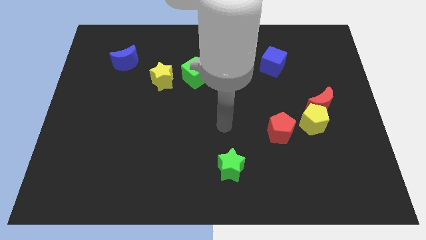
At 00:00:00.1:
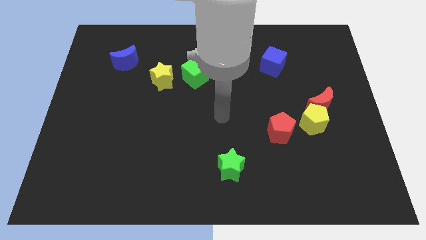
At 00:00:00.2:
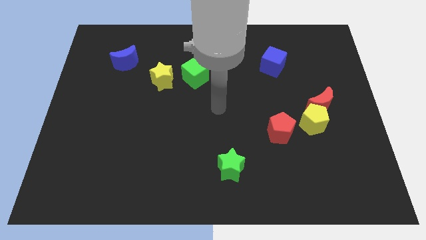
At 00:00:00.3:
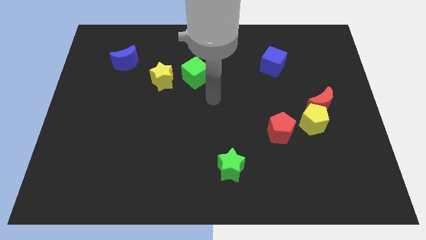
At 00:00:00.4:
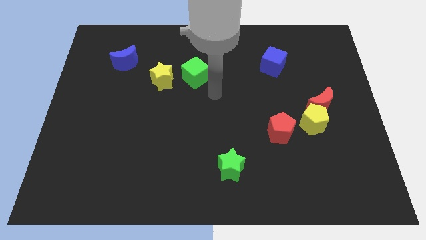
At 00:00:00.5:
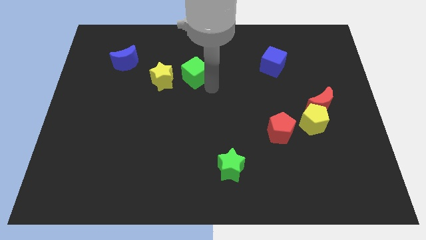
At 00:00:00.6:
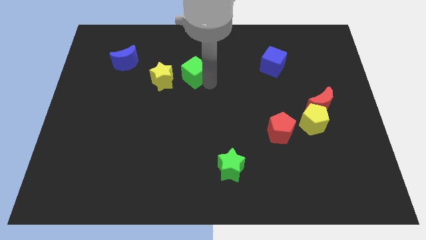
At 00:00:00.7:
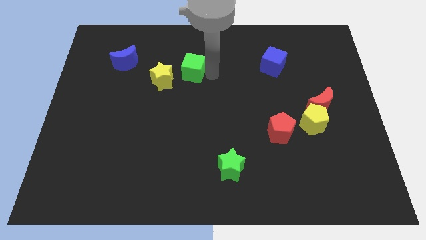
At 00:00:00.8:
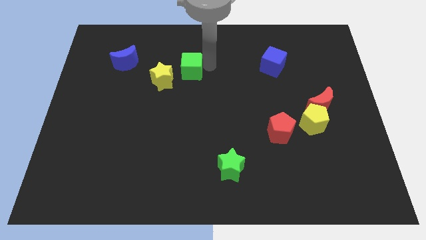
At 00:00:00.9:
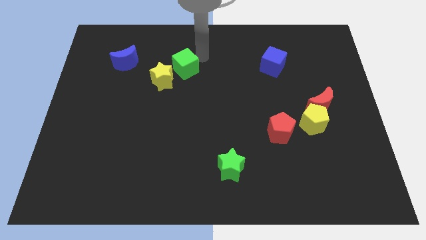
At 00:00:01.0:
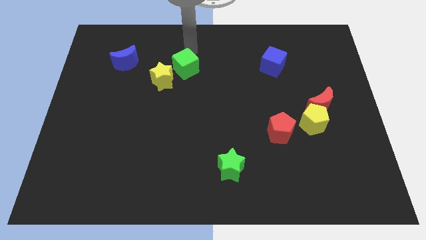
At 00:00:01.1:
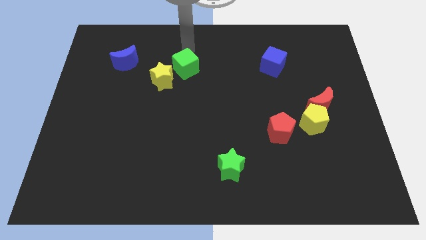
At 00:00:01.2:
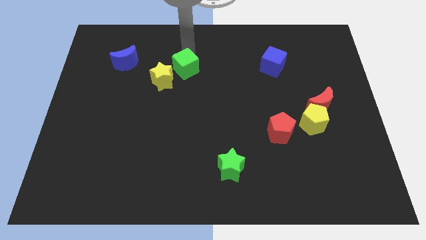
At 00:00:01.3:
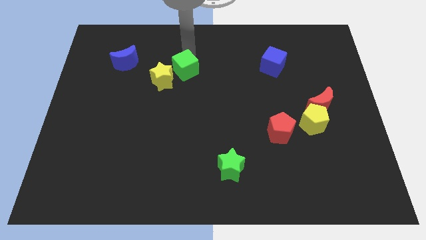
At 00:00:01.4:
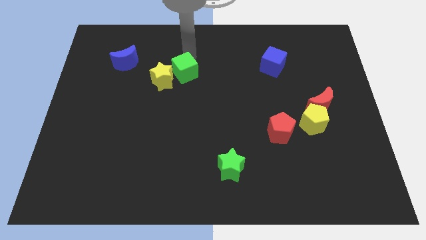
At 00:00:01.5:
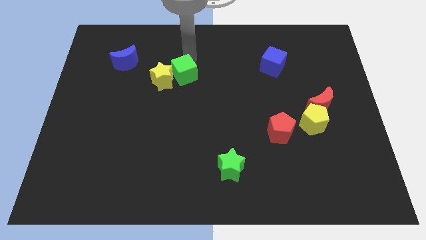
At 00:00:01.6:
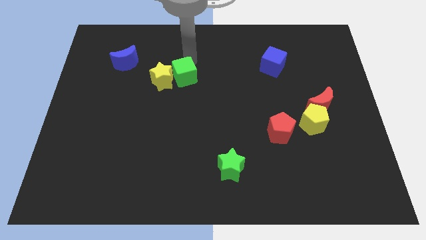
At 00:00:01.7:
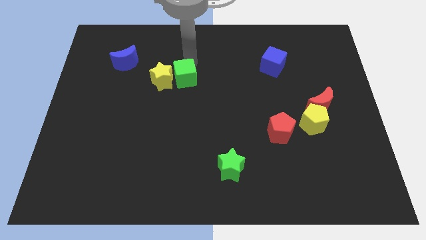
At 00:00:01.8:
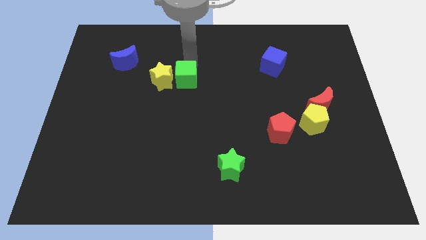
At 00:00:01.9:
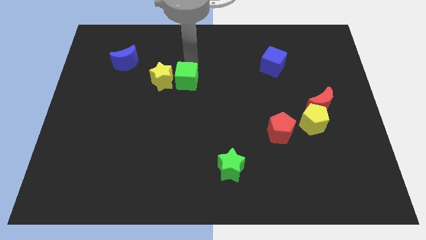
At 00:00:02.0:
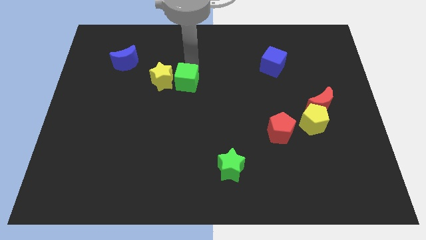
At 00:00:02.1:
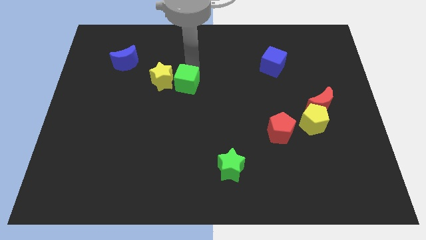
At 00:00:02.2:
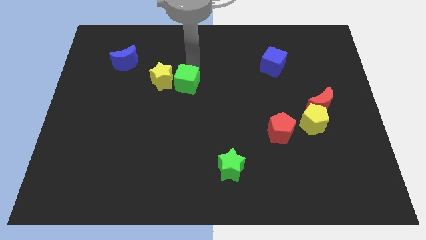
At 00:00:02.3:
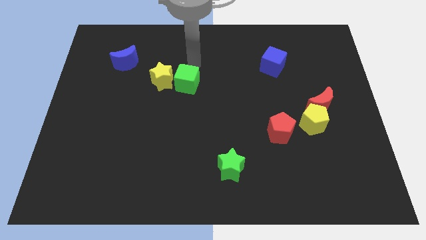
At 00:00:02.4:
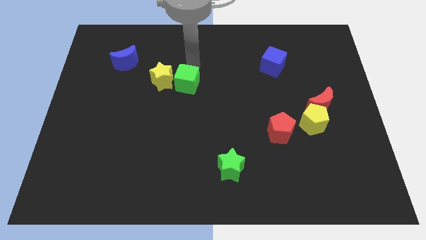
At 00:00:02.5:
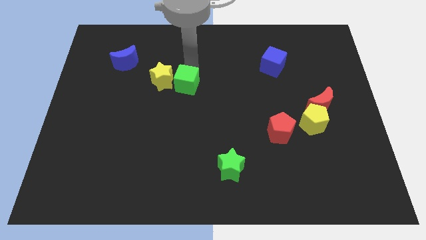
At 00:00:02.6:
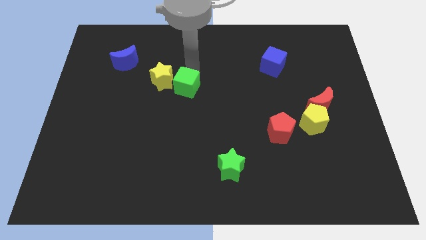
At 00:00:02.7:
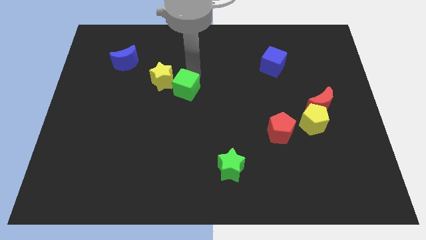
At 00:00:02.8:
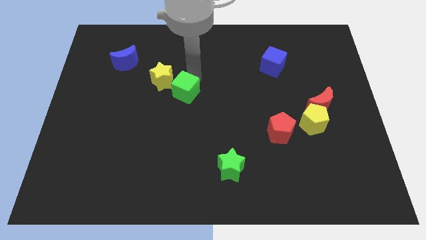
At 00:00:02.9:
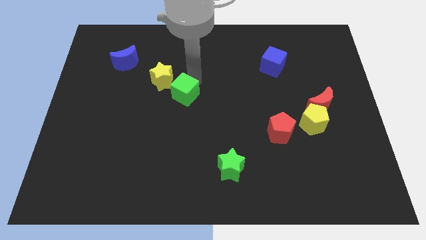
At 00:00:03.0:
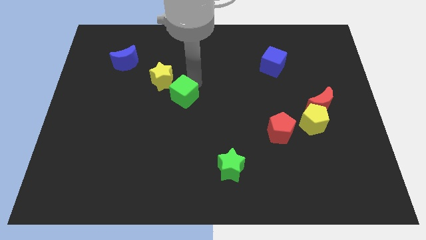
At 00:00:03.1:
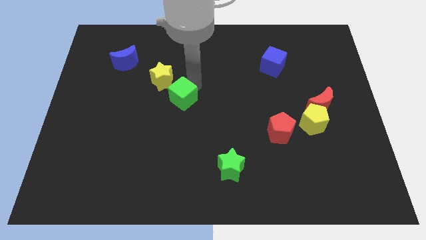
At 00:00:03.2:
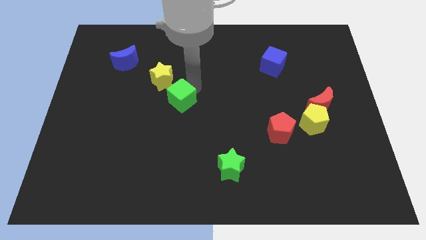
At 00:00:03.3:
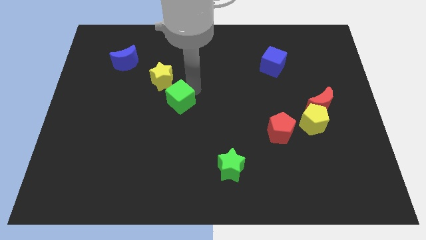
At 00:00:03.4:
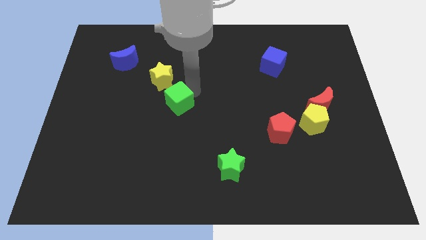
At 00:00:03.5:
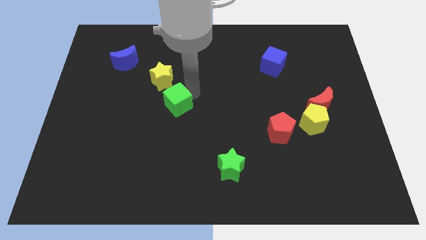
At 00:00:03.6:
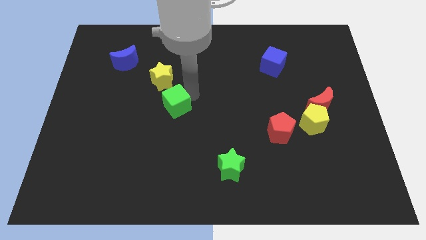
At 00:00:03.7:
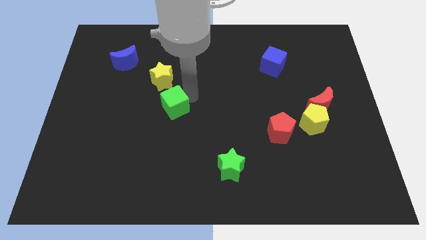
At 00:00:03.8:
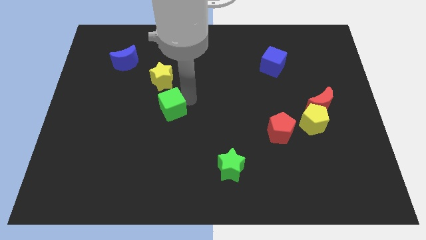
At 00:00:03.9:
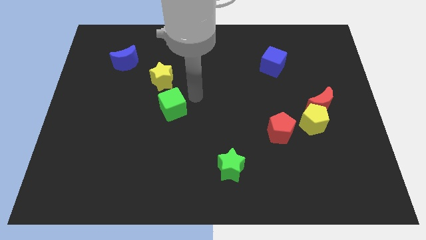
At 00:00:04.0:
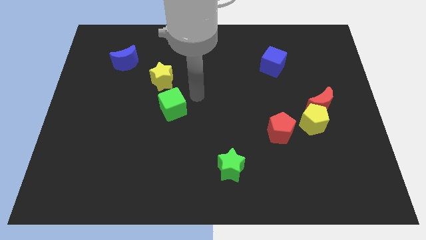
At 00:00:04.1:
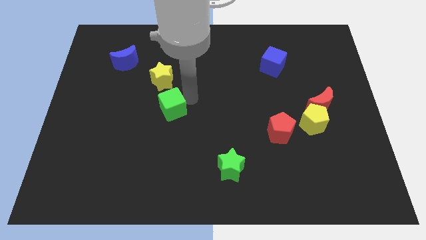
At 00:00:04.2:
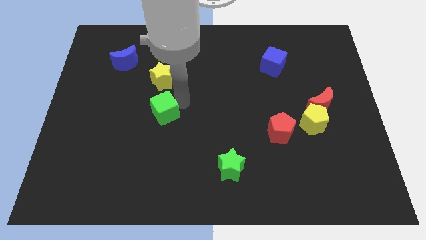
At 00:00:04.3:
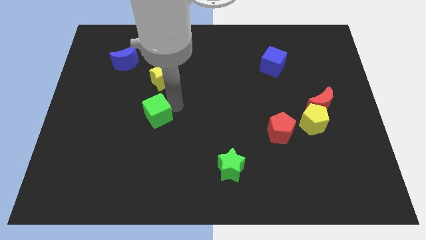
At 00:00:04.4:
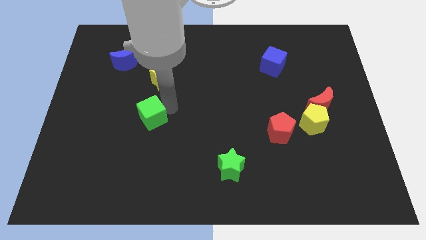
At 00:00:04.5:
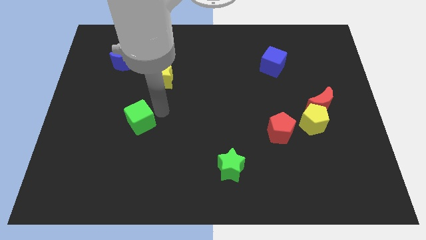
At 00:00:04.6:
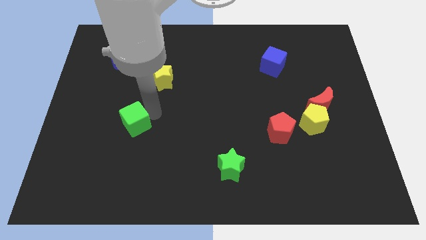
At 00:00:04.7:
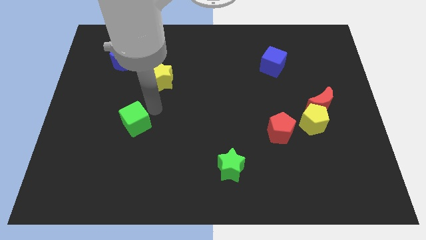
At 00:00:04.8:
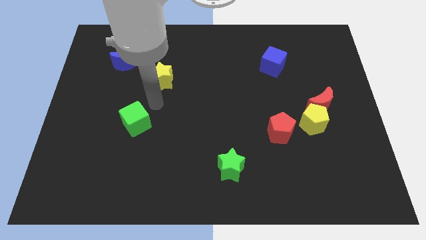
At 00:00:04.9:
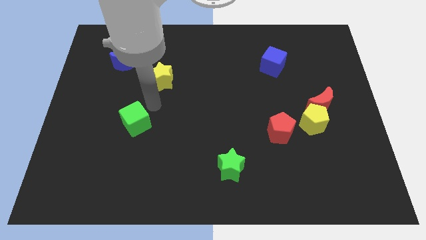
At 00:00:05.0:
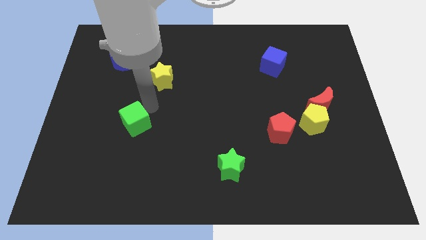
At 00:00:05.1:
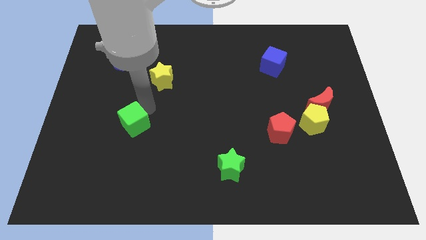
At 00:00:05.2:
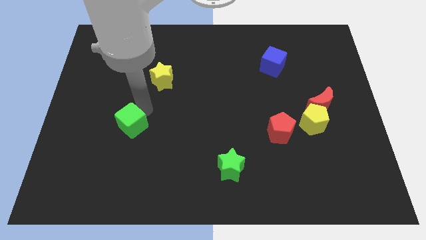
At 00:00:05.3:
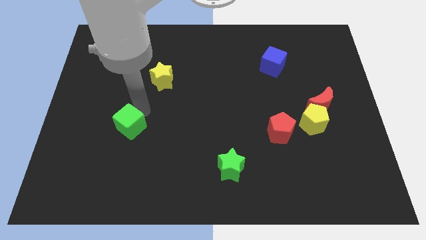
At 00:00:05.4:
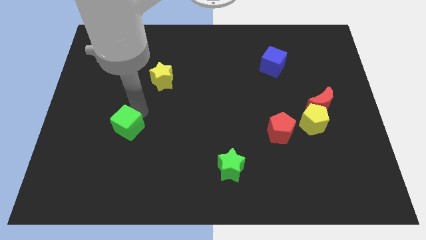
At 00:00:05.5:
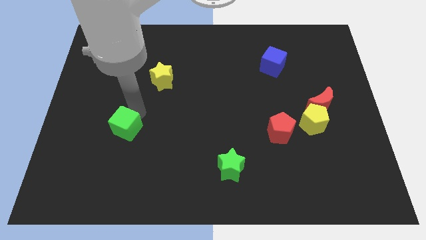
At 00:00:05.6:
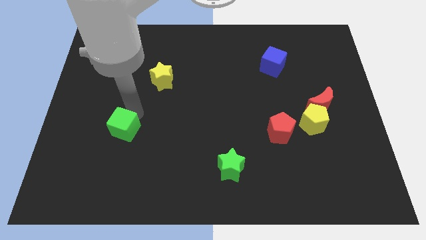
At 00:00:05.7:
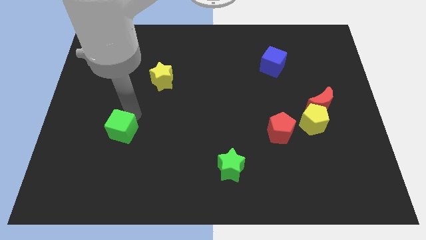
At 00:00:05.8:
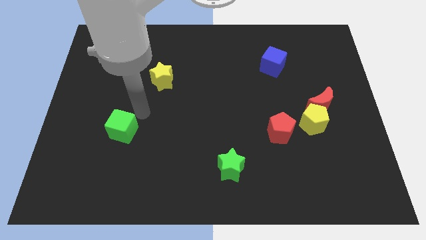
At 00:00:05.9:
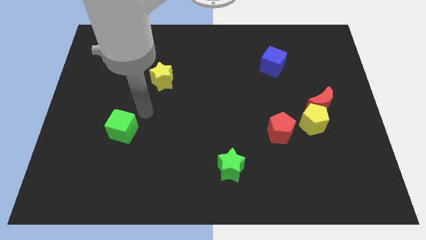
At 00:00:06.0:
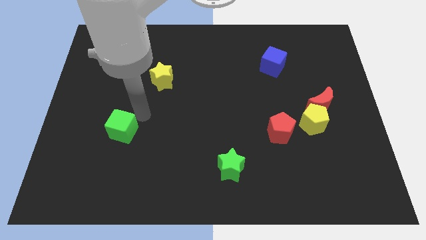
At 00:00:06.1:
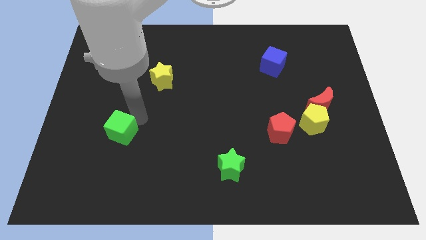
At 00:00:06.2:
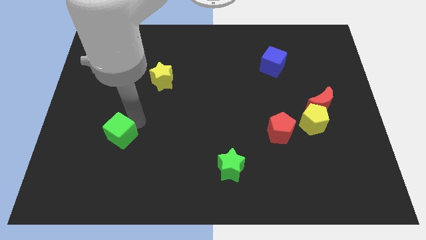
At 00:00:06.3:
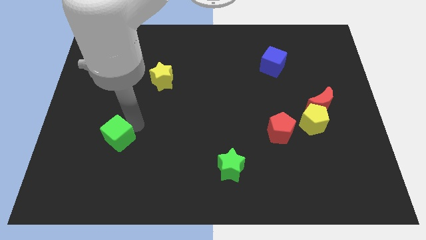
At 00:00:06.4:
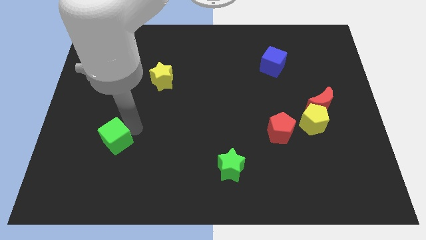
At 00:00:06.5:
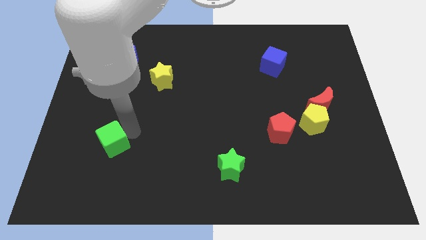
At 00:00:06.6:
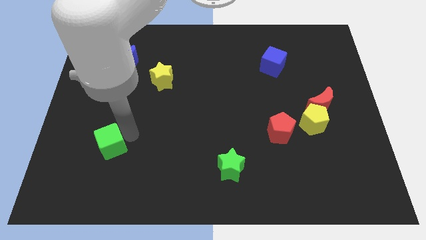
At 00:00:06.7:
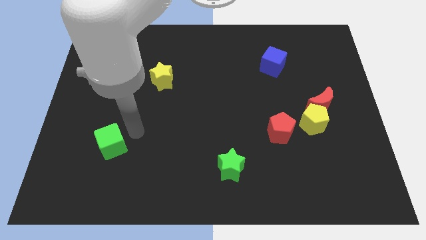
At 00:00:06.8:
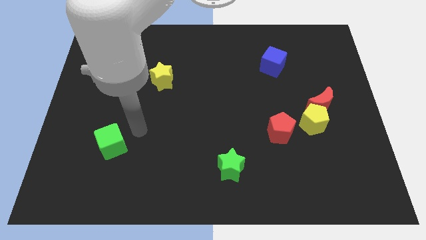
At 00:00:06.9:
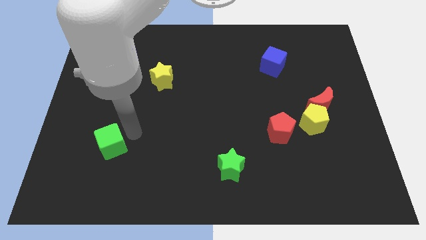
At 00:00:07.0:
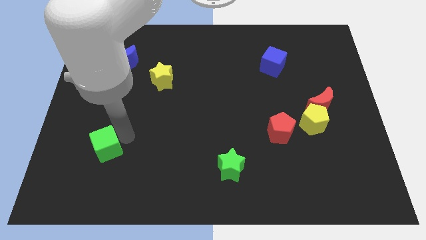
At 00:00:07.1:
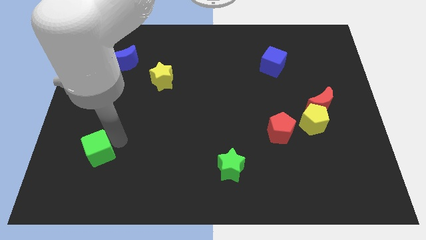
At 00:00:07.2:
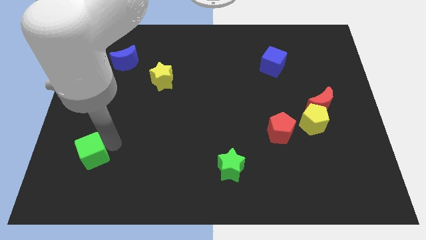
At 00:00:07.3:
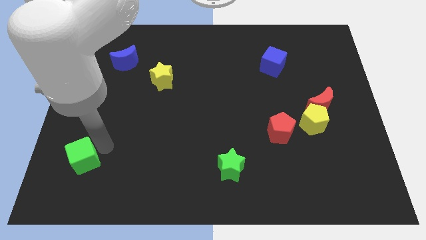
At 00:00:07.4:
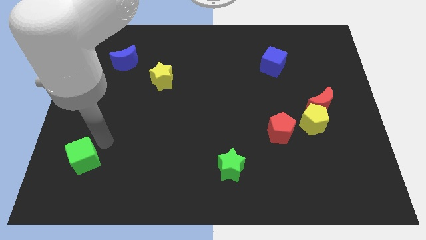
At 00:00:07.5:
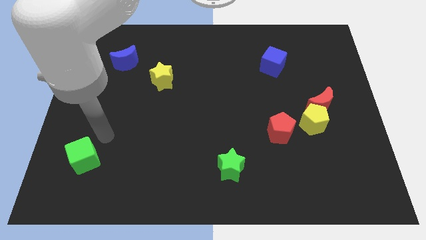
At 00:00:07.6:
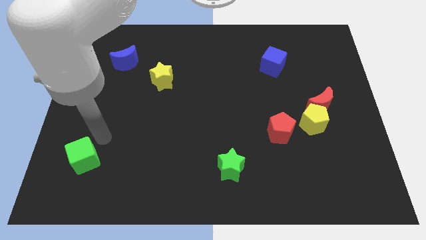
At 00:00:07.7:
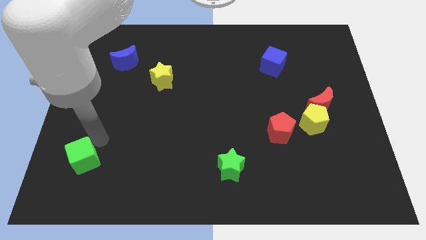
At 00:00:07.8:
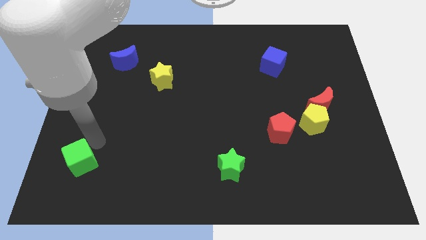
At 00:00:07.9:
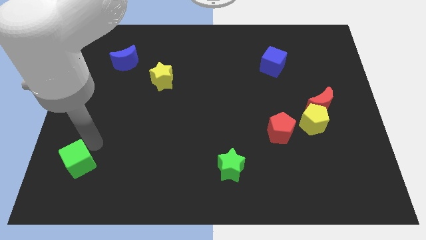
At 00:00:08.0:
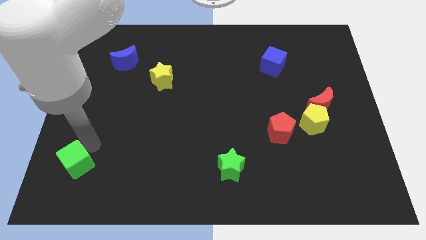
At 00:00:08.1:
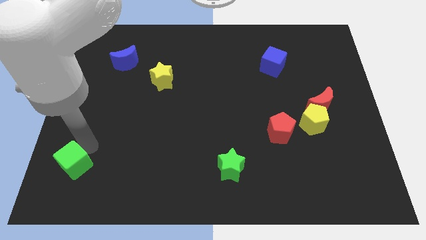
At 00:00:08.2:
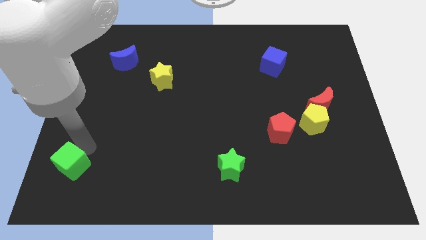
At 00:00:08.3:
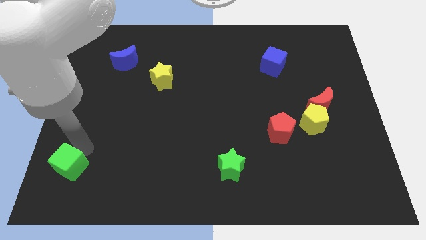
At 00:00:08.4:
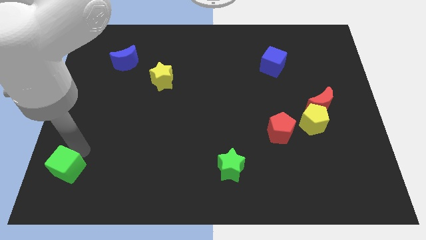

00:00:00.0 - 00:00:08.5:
slide the green cube to the bottom left
